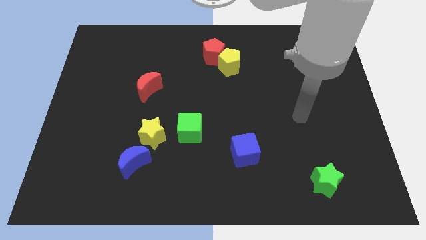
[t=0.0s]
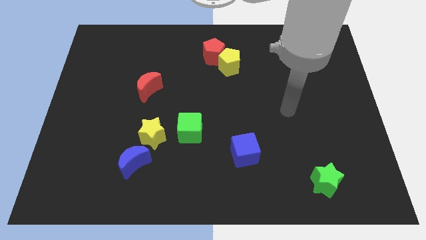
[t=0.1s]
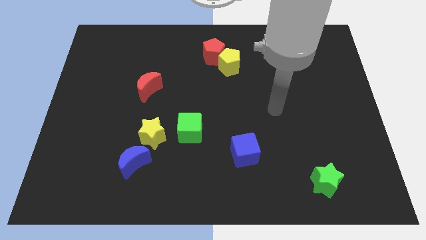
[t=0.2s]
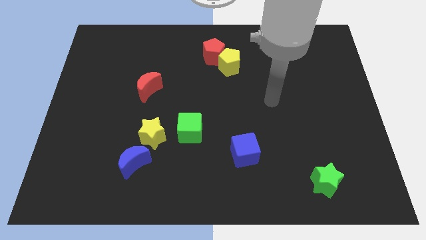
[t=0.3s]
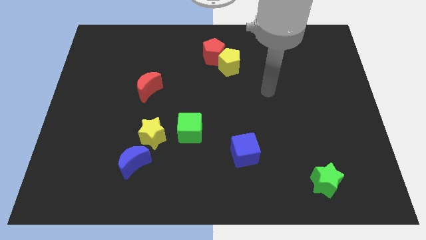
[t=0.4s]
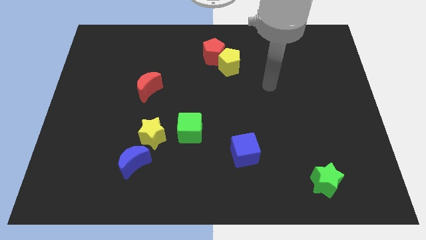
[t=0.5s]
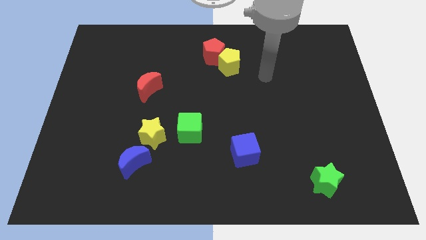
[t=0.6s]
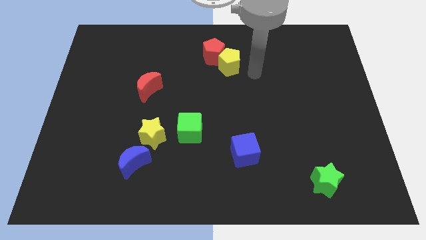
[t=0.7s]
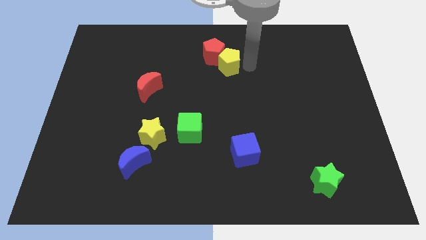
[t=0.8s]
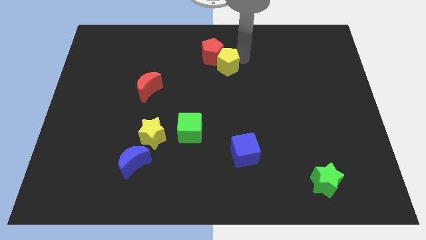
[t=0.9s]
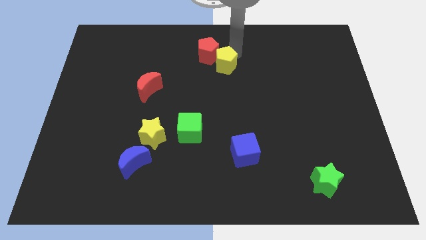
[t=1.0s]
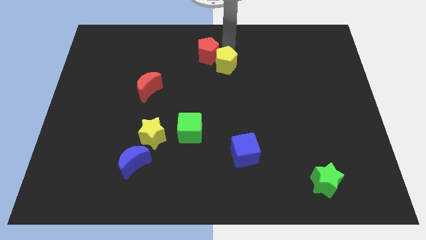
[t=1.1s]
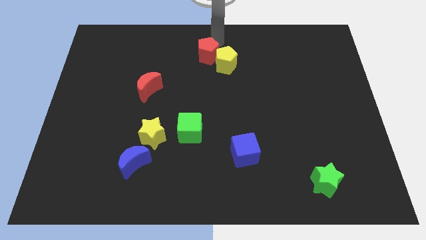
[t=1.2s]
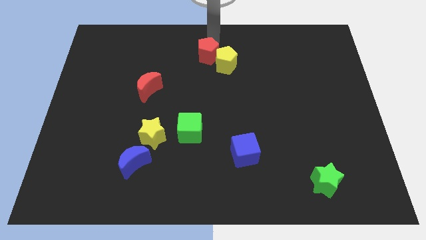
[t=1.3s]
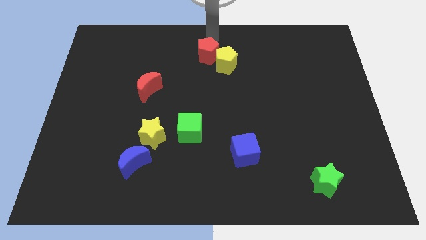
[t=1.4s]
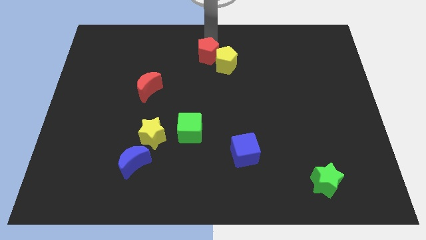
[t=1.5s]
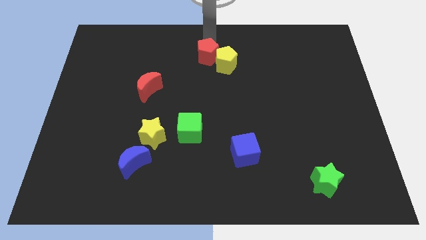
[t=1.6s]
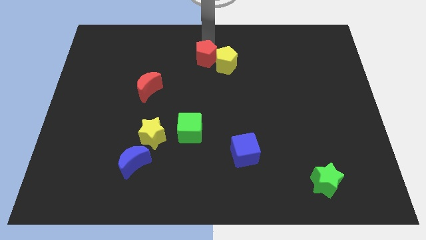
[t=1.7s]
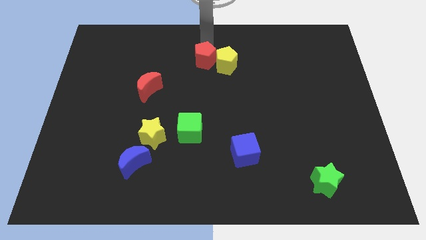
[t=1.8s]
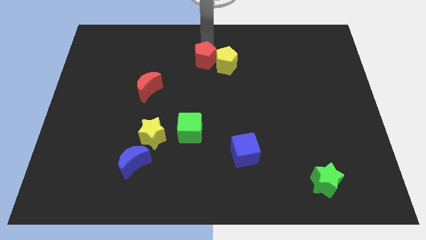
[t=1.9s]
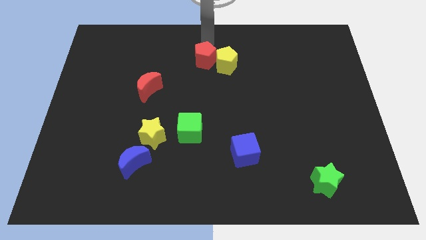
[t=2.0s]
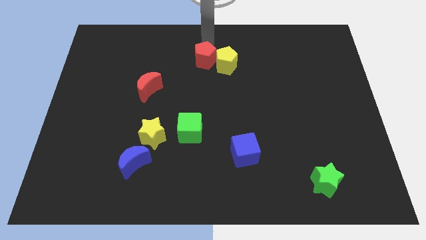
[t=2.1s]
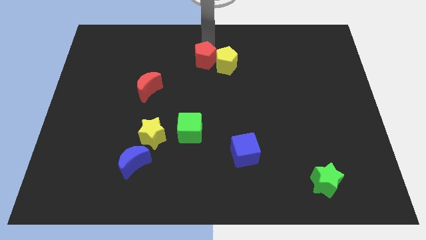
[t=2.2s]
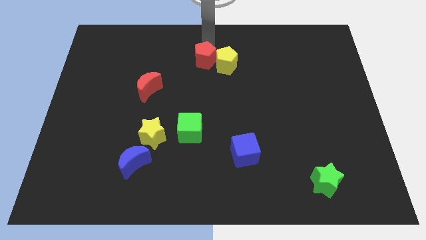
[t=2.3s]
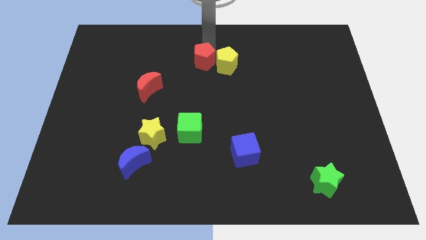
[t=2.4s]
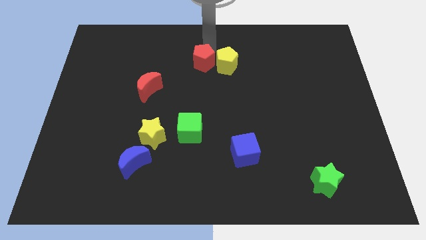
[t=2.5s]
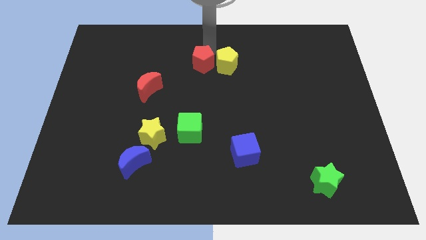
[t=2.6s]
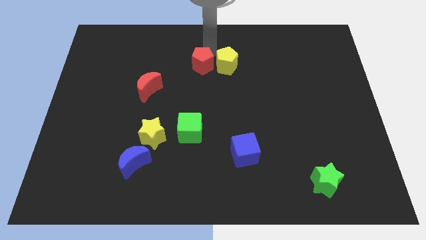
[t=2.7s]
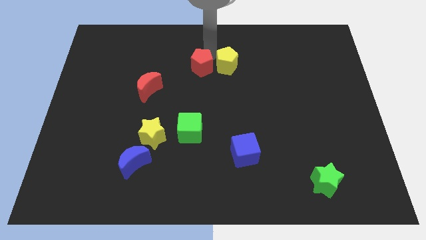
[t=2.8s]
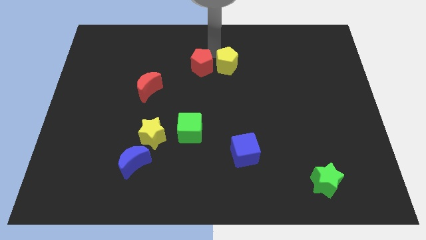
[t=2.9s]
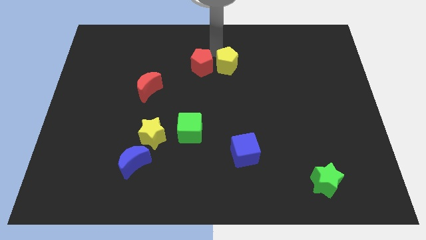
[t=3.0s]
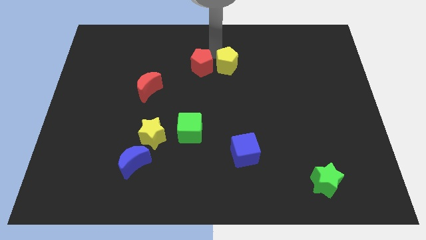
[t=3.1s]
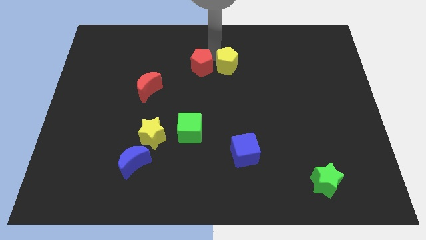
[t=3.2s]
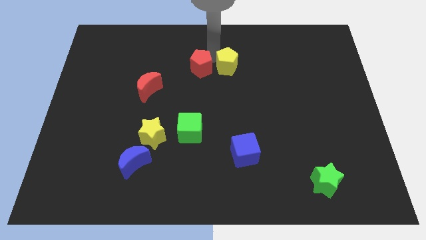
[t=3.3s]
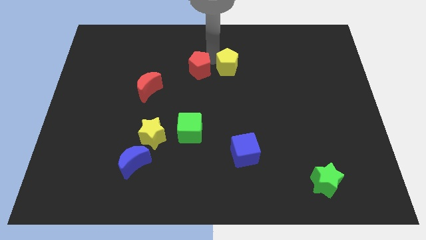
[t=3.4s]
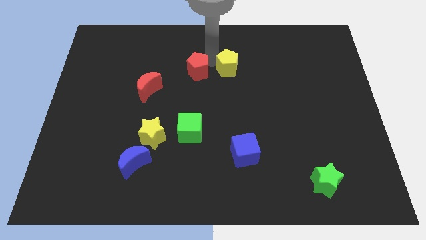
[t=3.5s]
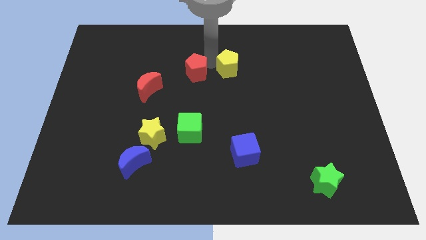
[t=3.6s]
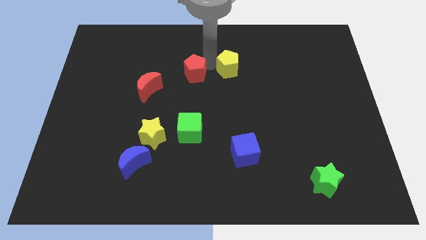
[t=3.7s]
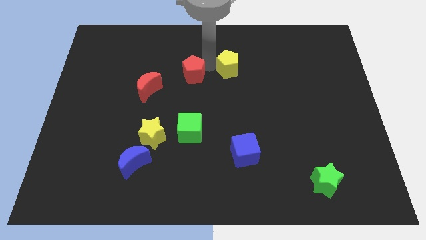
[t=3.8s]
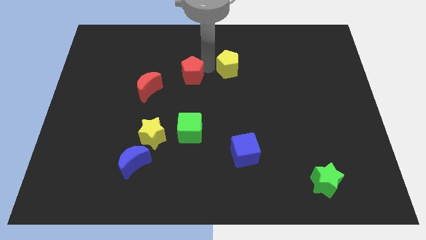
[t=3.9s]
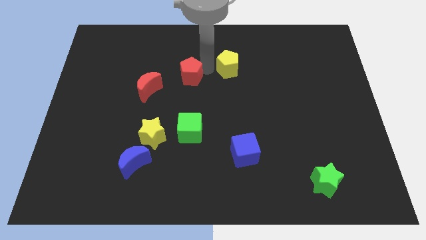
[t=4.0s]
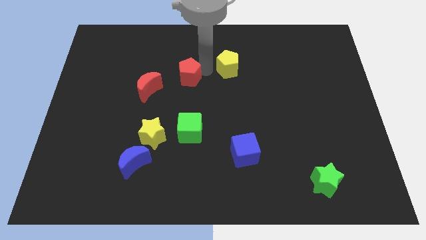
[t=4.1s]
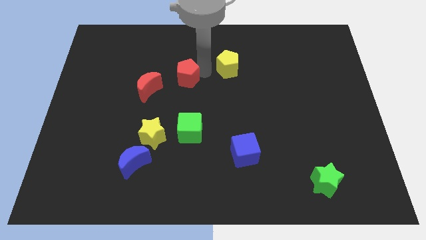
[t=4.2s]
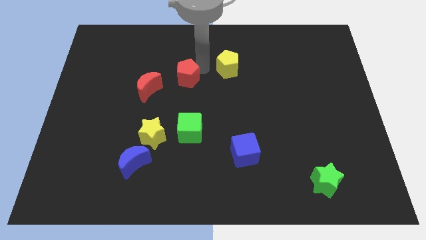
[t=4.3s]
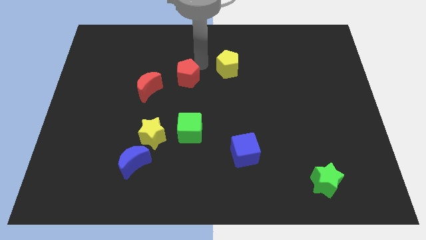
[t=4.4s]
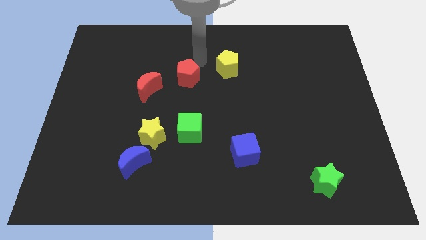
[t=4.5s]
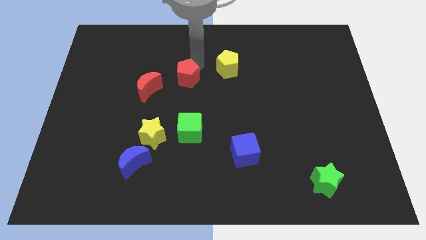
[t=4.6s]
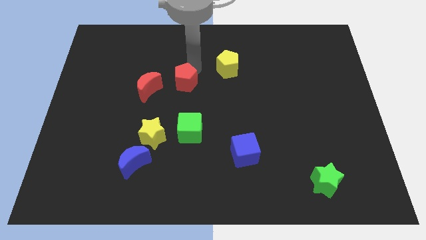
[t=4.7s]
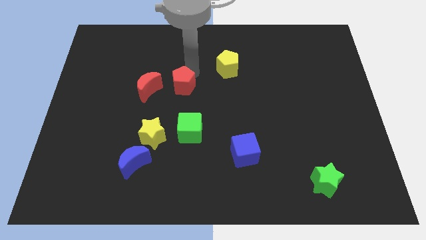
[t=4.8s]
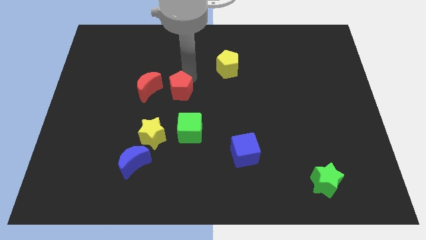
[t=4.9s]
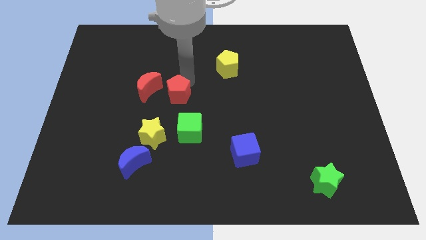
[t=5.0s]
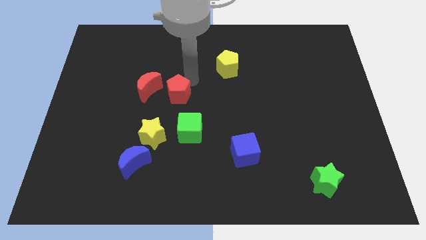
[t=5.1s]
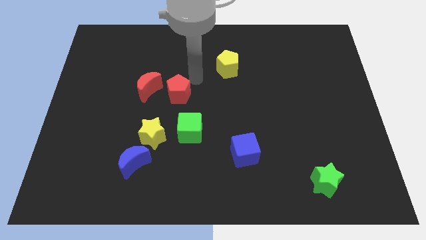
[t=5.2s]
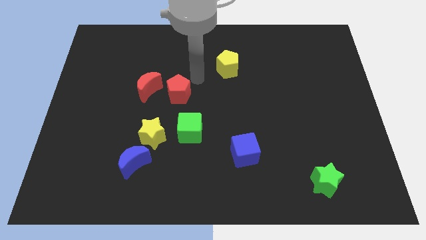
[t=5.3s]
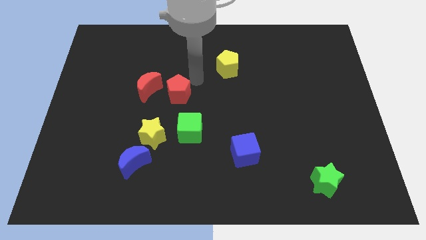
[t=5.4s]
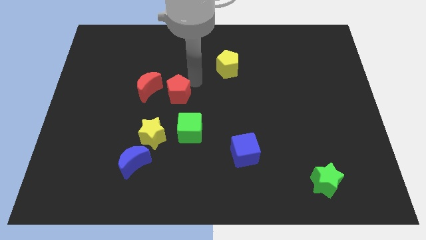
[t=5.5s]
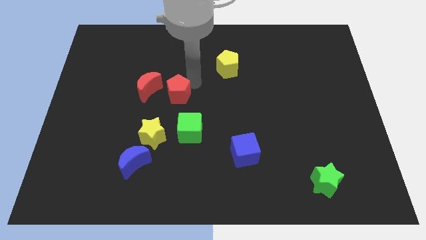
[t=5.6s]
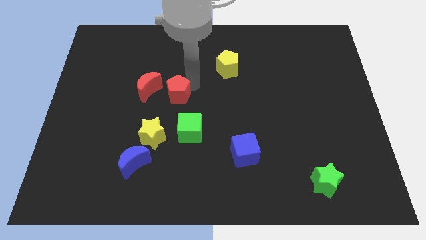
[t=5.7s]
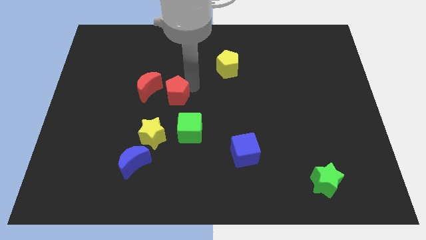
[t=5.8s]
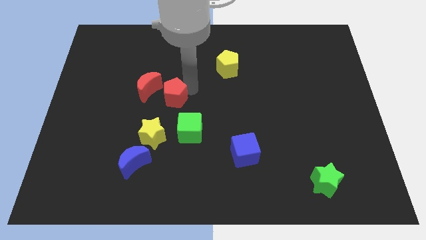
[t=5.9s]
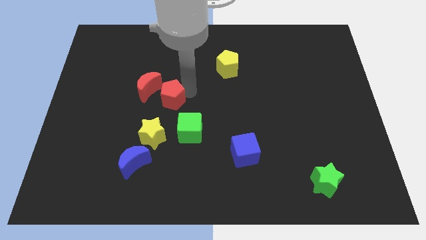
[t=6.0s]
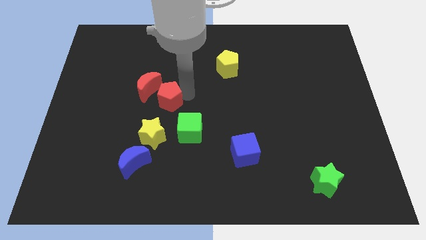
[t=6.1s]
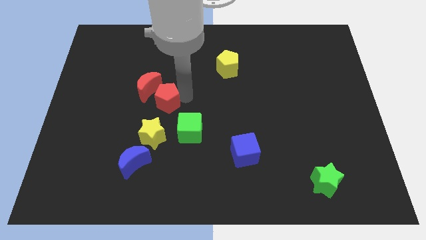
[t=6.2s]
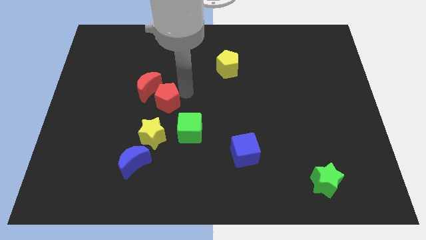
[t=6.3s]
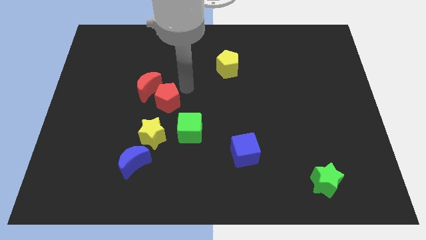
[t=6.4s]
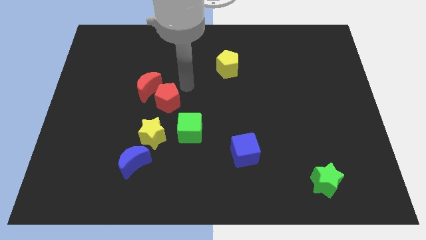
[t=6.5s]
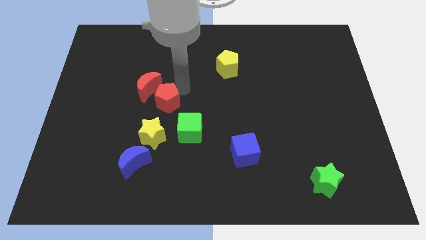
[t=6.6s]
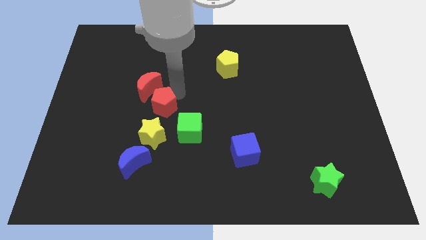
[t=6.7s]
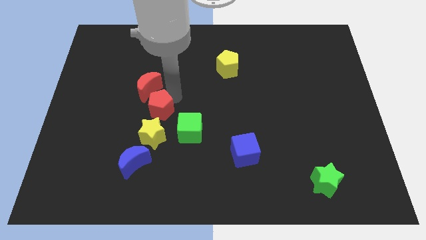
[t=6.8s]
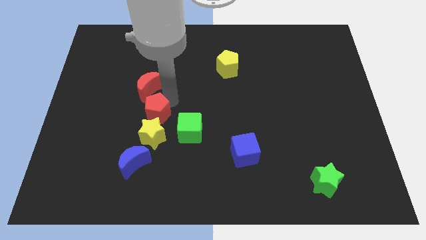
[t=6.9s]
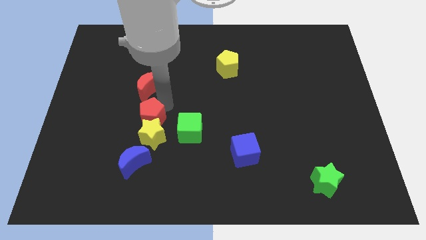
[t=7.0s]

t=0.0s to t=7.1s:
put the red pentagon just left of the green cube
